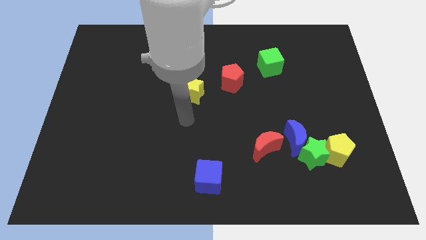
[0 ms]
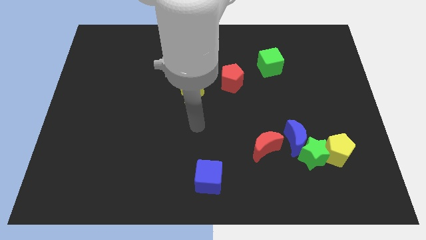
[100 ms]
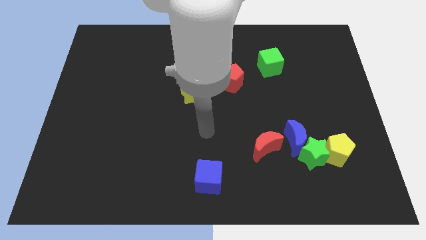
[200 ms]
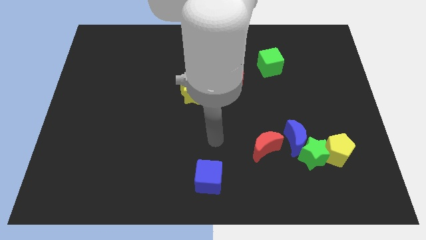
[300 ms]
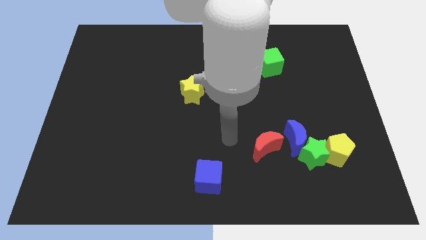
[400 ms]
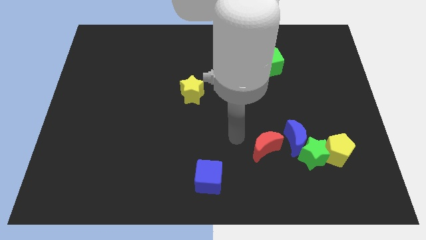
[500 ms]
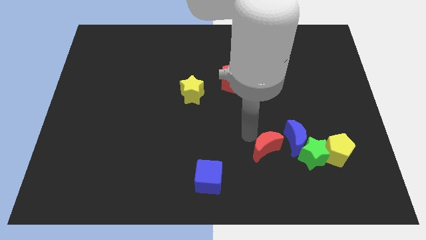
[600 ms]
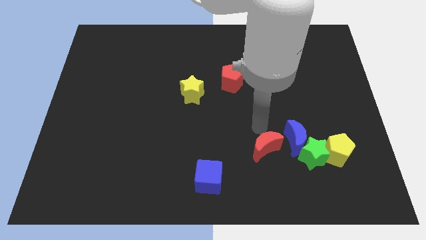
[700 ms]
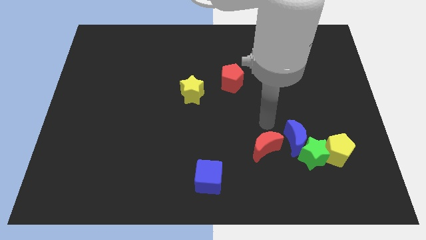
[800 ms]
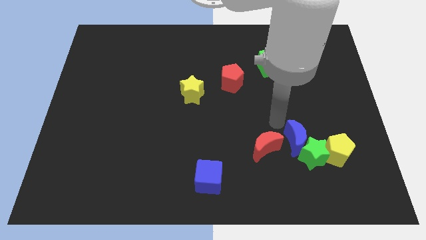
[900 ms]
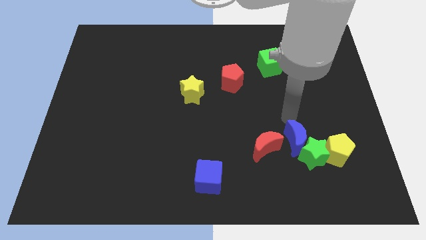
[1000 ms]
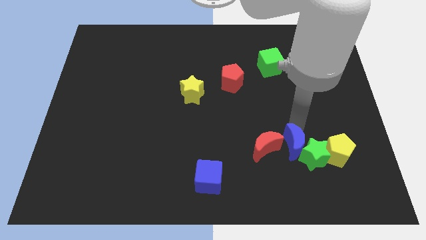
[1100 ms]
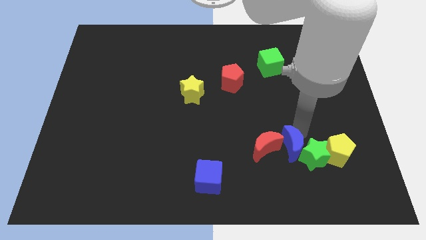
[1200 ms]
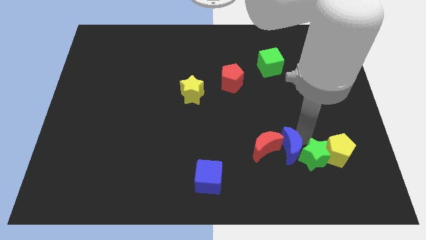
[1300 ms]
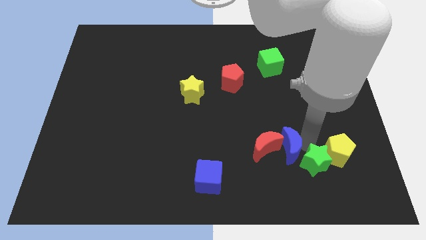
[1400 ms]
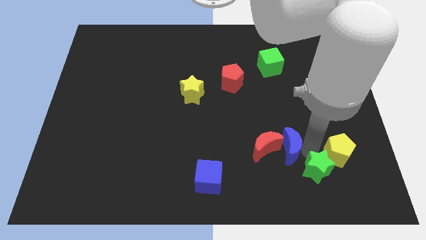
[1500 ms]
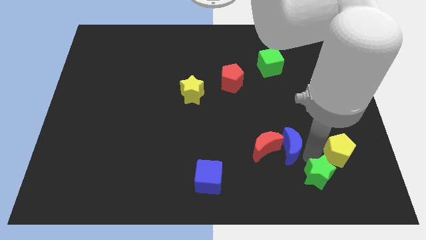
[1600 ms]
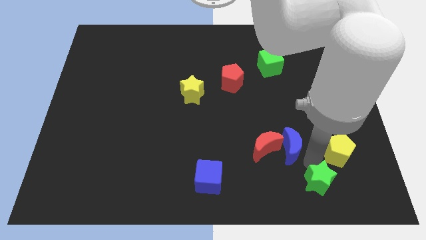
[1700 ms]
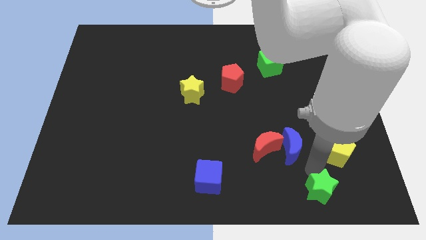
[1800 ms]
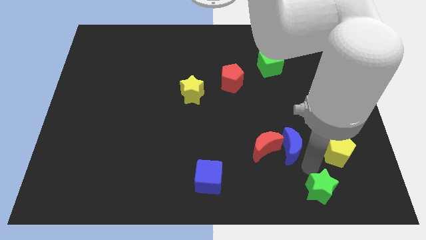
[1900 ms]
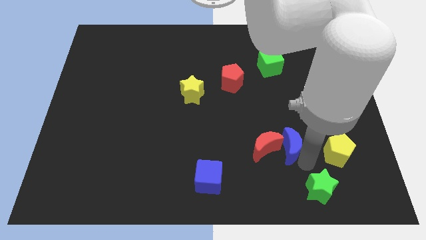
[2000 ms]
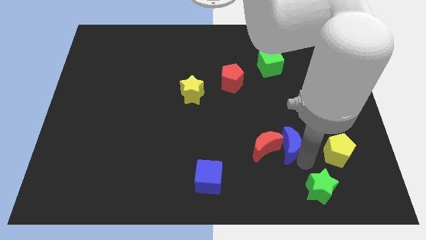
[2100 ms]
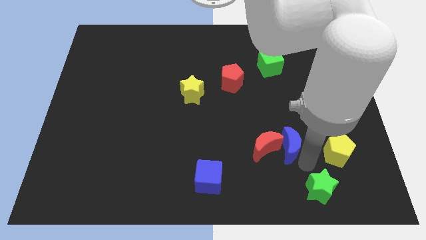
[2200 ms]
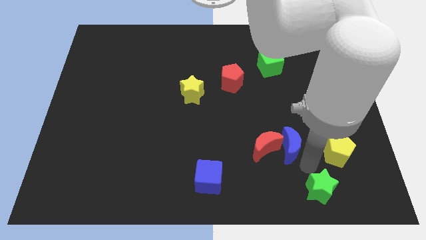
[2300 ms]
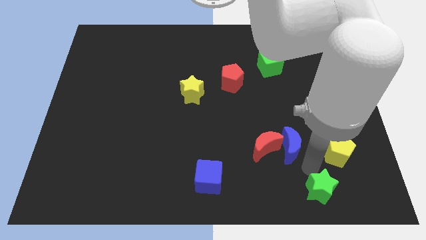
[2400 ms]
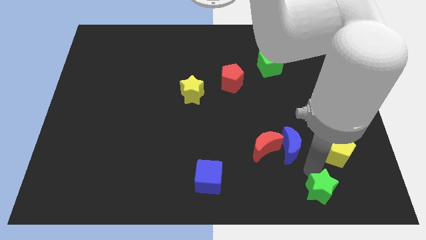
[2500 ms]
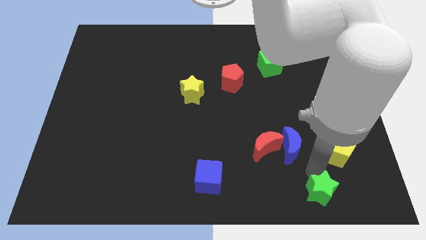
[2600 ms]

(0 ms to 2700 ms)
separate the green star from the clump

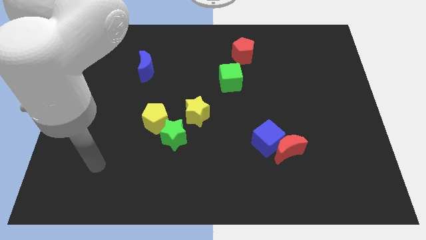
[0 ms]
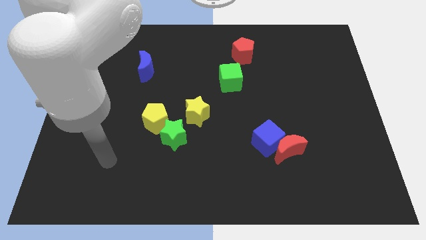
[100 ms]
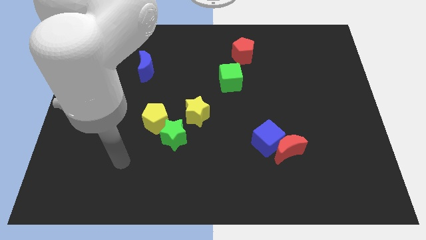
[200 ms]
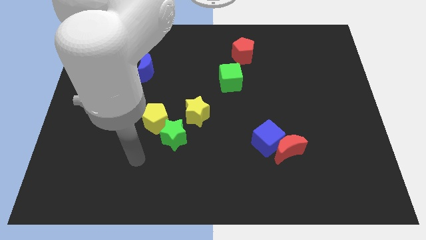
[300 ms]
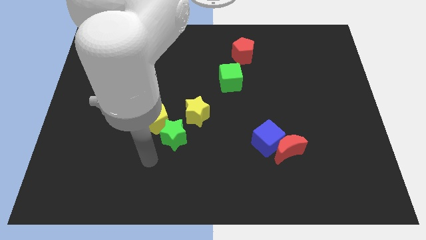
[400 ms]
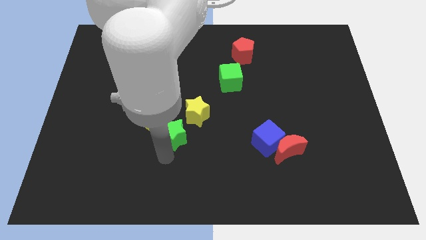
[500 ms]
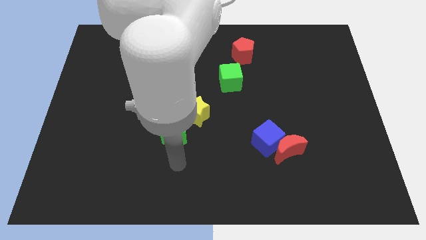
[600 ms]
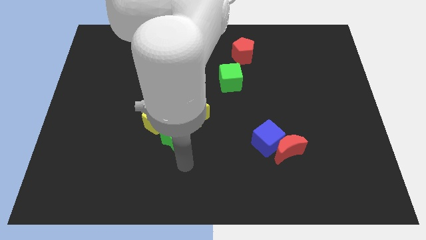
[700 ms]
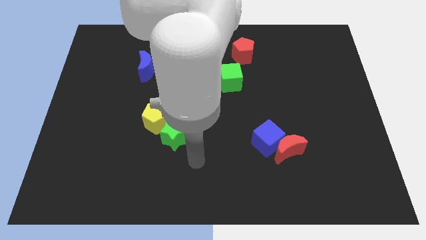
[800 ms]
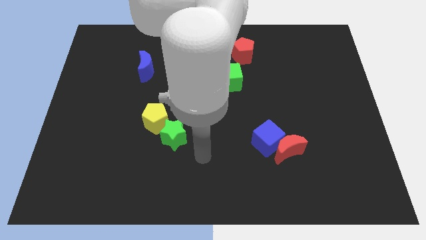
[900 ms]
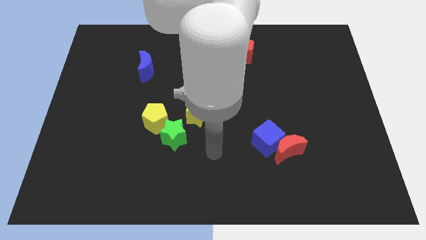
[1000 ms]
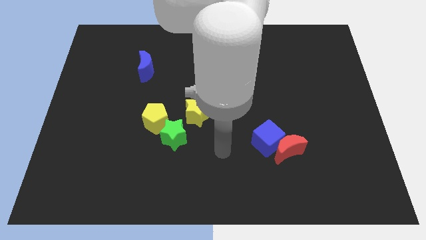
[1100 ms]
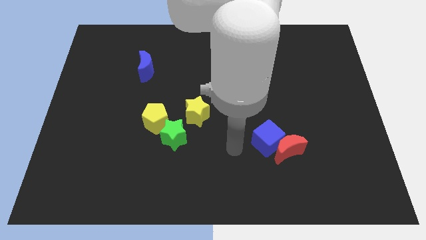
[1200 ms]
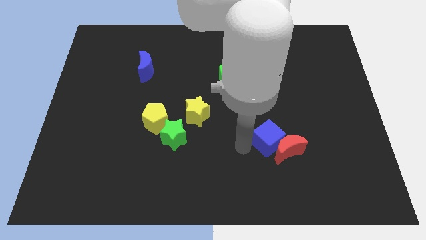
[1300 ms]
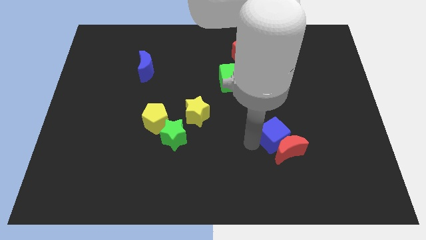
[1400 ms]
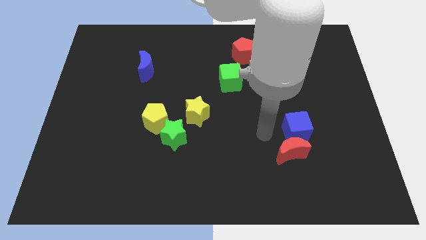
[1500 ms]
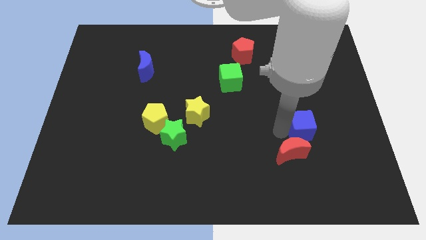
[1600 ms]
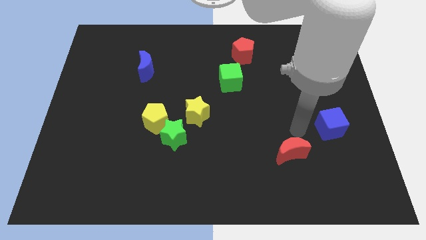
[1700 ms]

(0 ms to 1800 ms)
separate the red moon from the blue cube

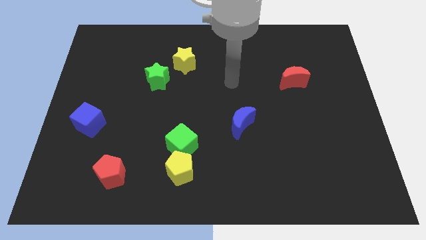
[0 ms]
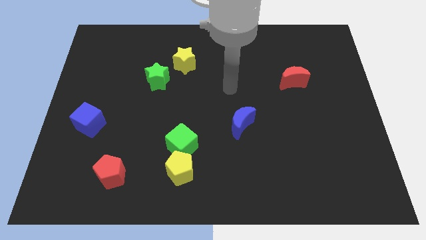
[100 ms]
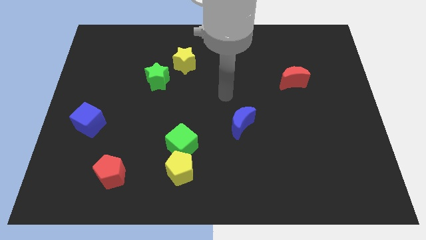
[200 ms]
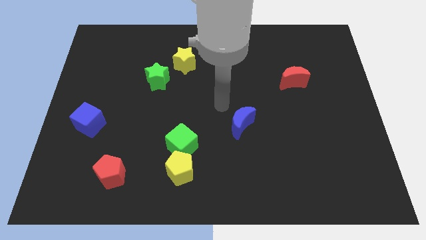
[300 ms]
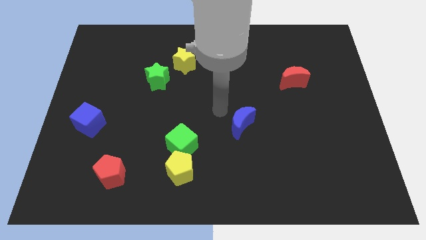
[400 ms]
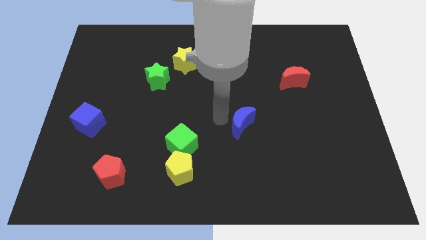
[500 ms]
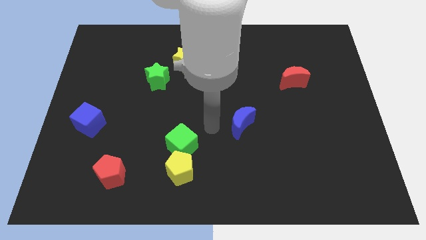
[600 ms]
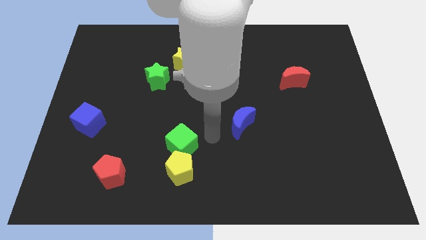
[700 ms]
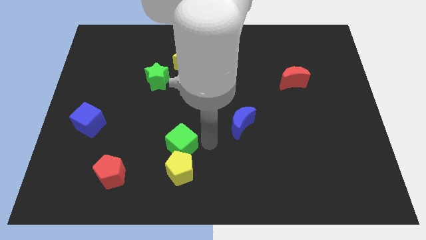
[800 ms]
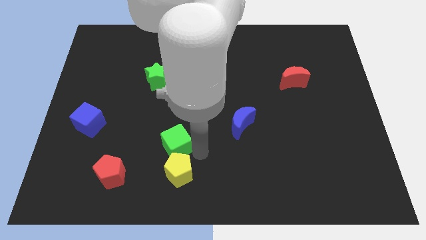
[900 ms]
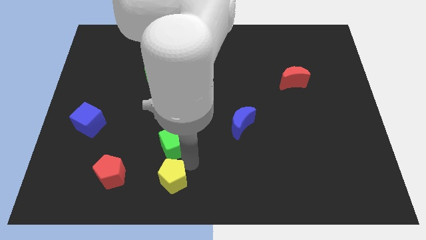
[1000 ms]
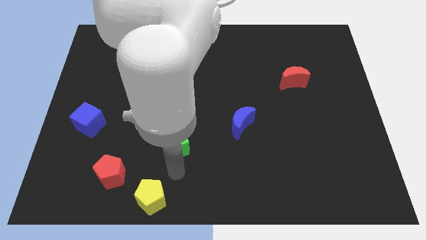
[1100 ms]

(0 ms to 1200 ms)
pull the green cube apart from the yellow pentagon

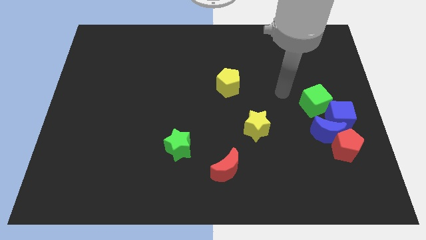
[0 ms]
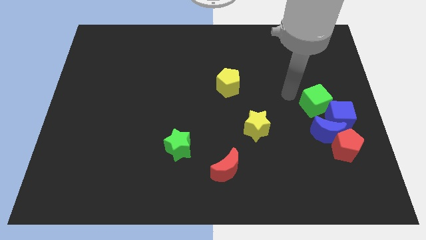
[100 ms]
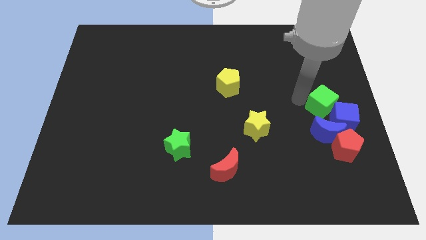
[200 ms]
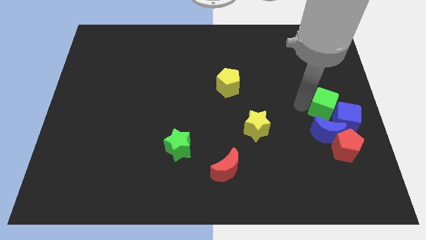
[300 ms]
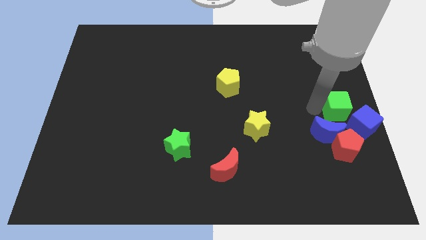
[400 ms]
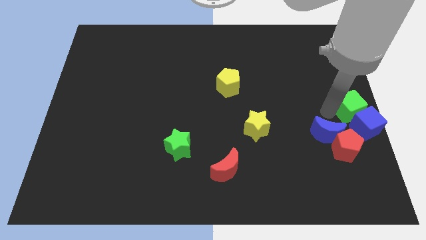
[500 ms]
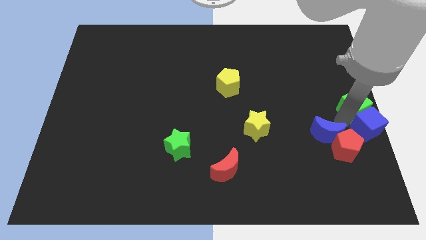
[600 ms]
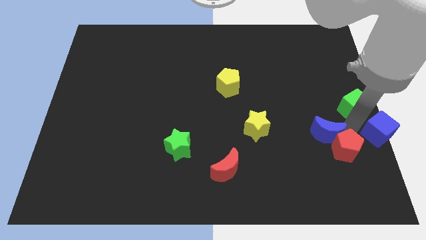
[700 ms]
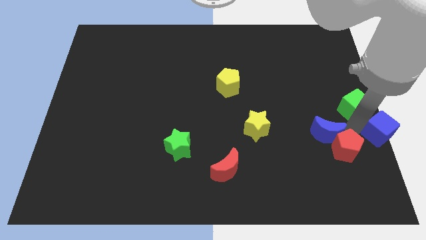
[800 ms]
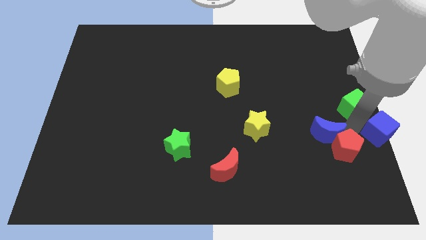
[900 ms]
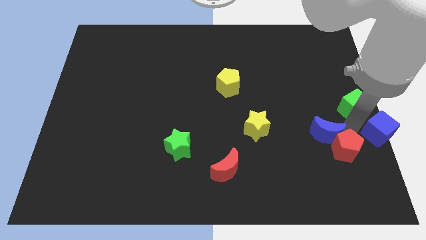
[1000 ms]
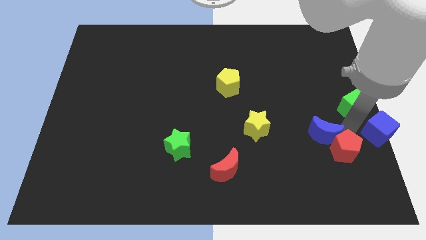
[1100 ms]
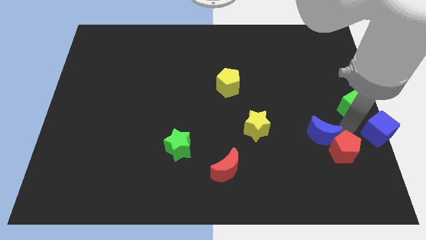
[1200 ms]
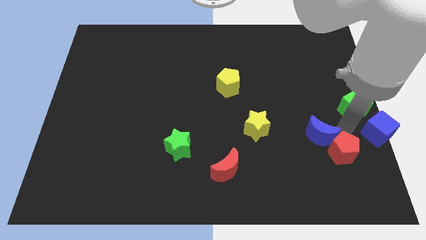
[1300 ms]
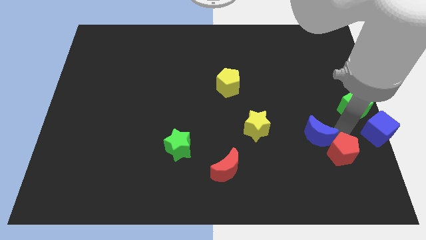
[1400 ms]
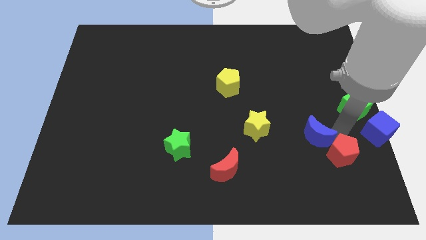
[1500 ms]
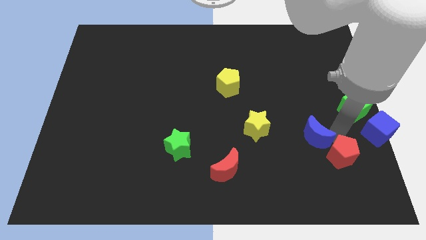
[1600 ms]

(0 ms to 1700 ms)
move the blue moon away from the clump

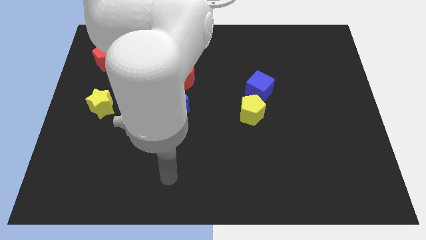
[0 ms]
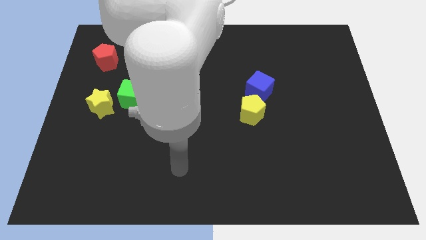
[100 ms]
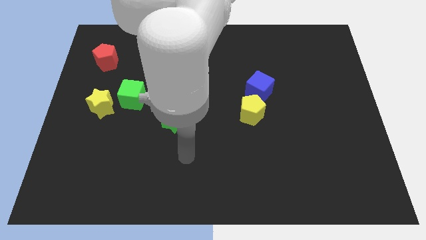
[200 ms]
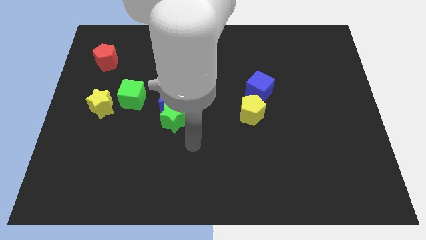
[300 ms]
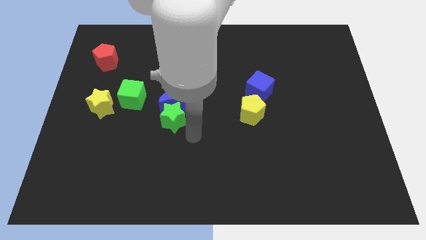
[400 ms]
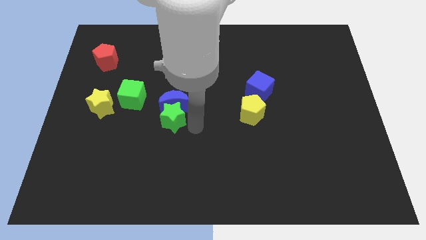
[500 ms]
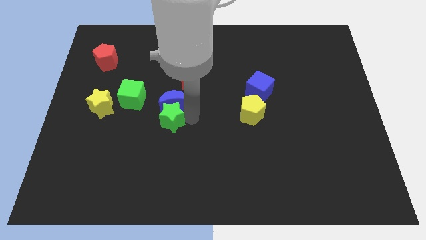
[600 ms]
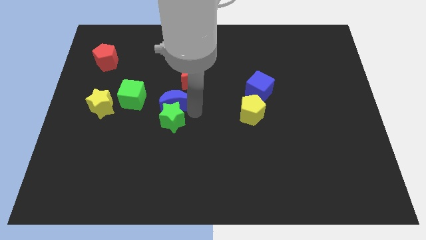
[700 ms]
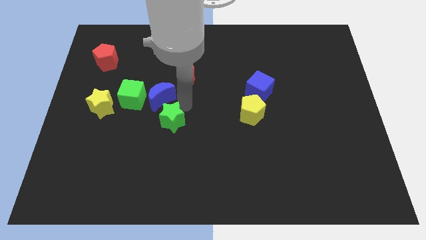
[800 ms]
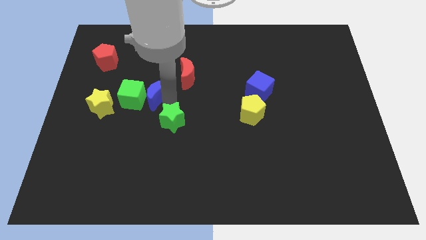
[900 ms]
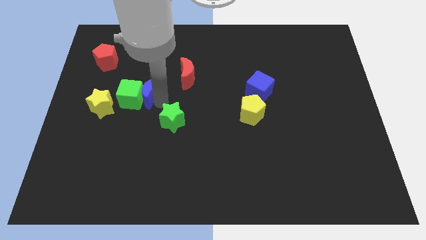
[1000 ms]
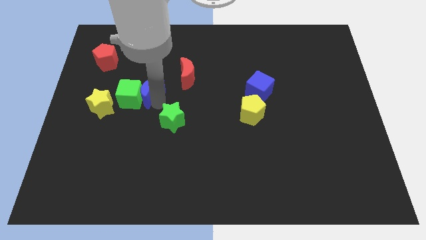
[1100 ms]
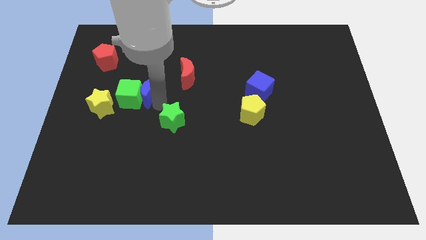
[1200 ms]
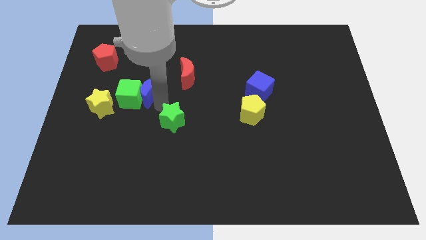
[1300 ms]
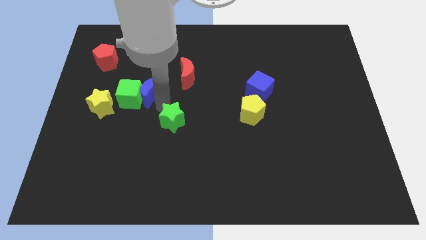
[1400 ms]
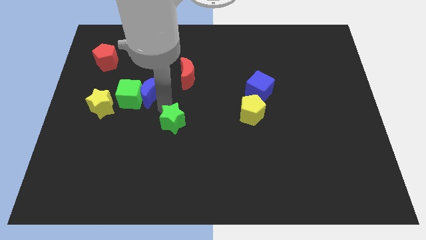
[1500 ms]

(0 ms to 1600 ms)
separate the green star from the blue moon

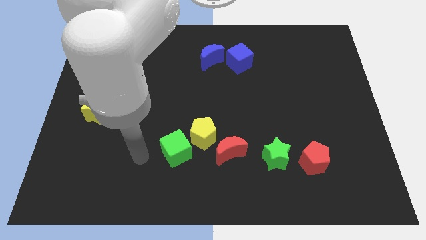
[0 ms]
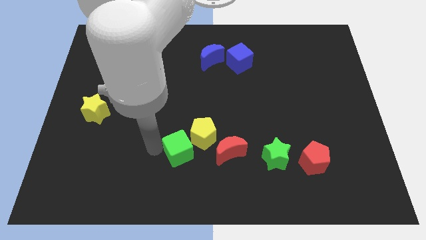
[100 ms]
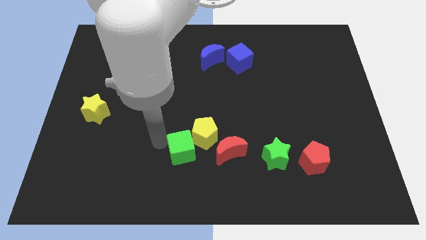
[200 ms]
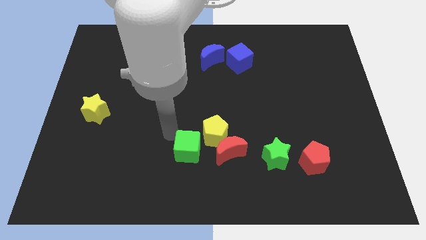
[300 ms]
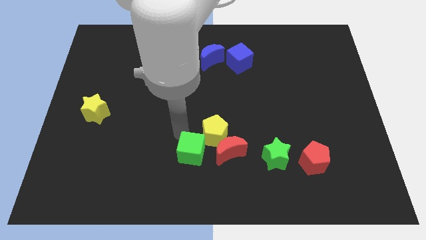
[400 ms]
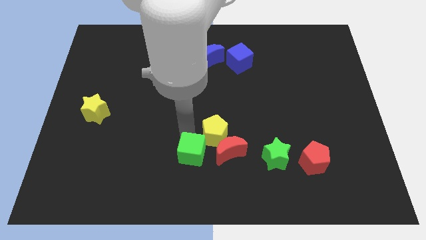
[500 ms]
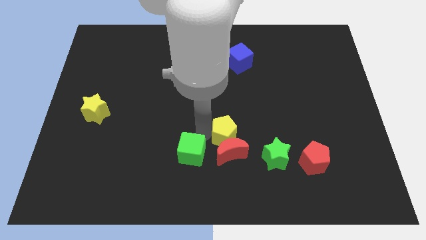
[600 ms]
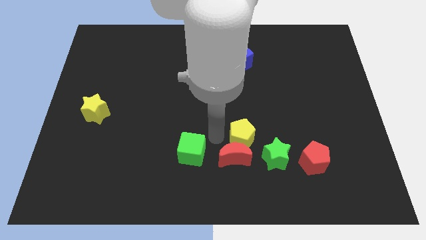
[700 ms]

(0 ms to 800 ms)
separate the green cube from the yellow pentagon
